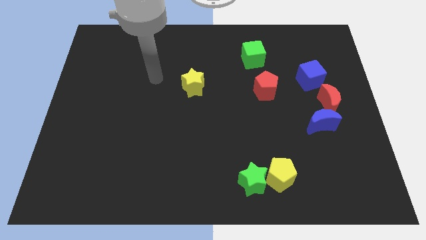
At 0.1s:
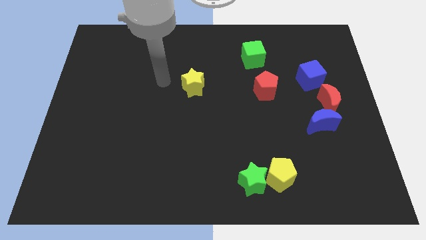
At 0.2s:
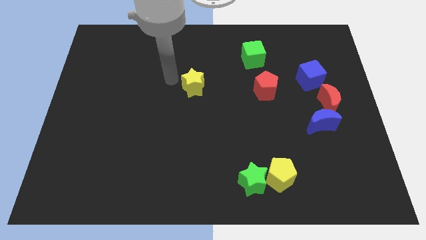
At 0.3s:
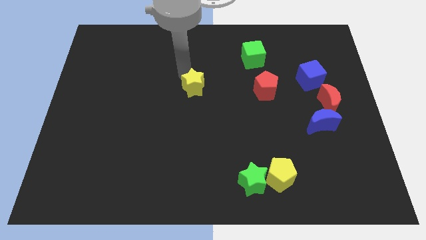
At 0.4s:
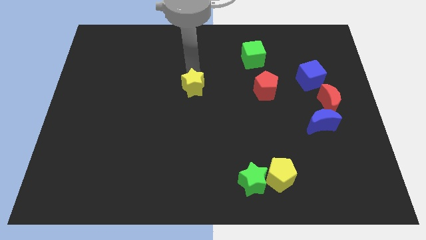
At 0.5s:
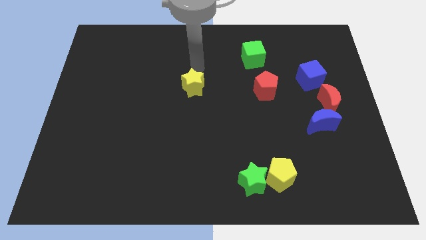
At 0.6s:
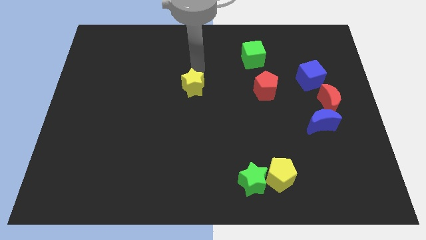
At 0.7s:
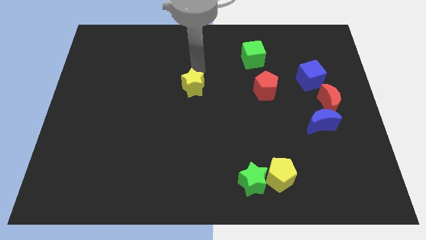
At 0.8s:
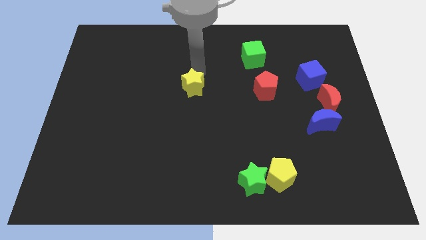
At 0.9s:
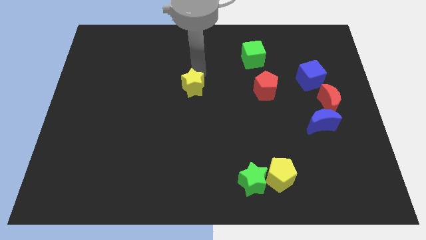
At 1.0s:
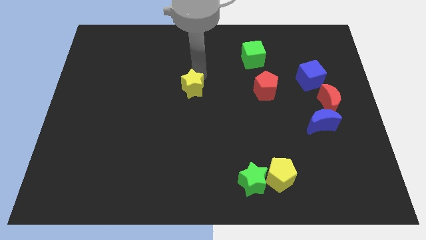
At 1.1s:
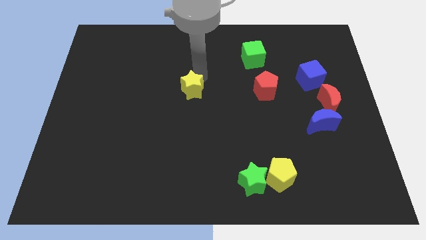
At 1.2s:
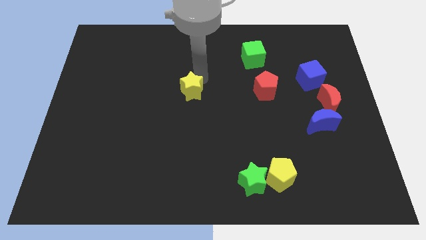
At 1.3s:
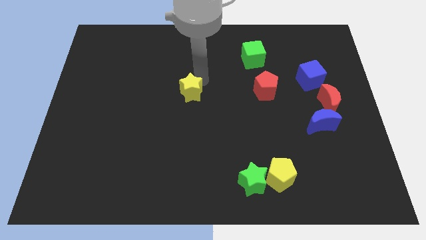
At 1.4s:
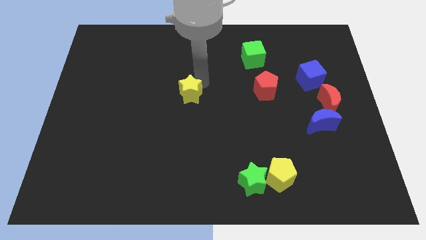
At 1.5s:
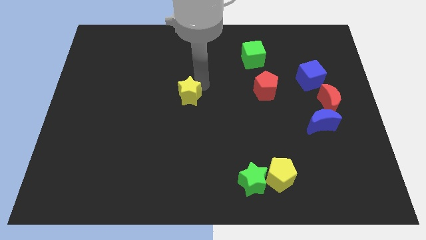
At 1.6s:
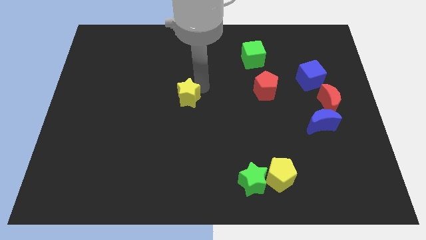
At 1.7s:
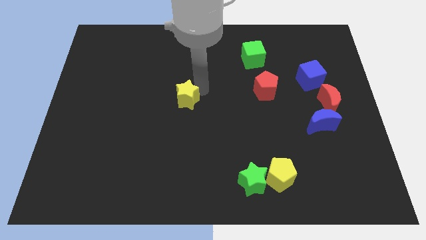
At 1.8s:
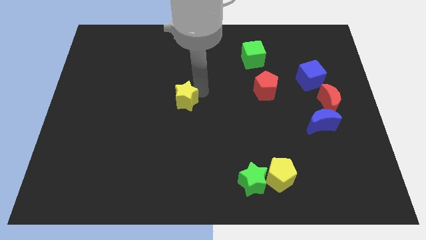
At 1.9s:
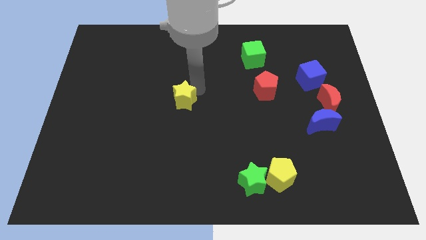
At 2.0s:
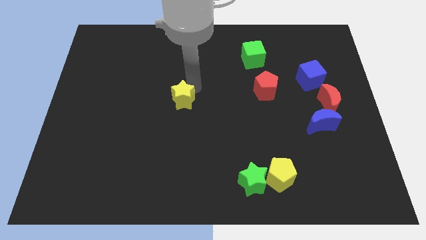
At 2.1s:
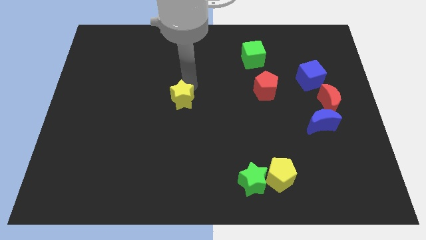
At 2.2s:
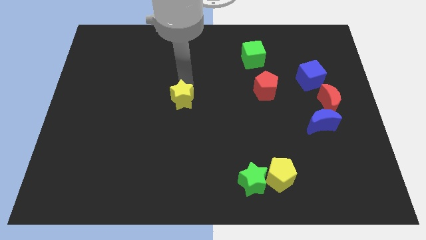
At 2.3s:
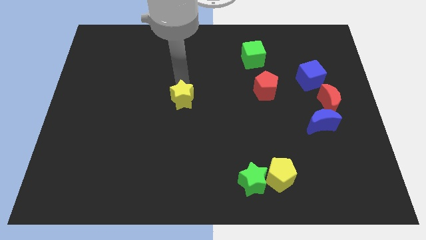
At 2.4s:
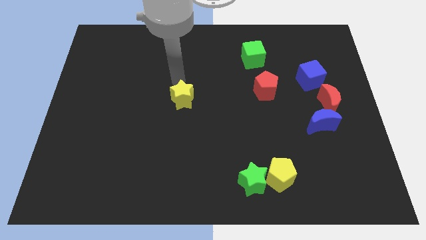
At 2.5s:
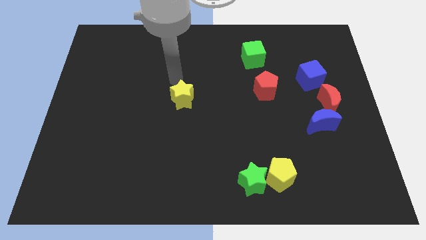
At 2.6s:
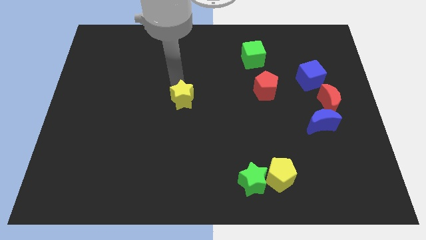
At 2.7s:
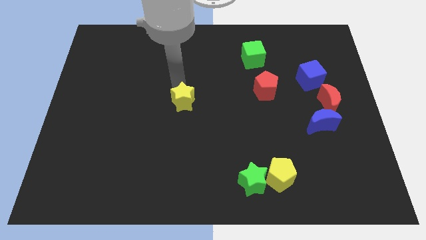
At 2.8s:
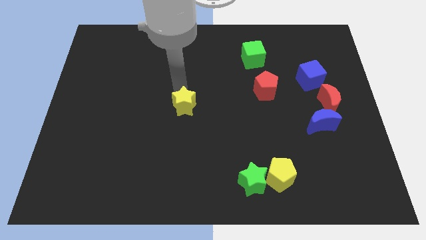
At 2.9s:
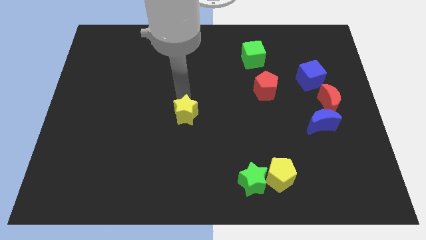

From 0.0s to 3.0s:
slide the yellow star slightly down

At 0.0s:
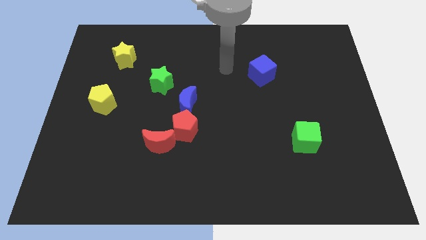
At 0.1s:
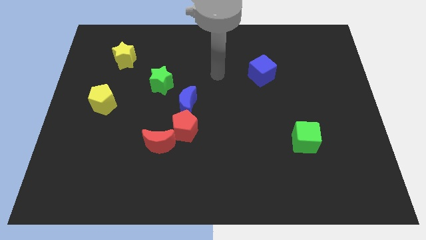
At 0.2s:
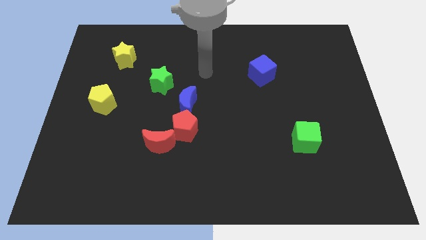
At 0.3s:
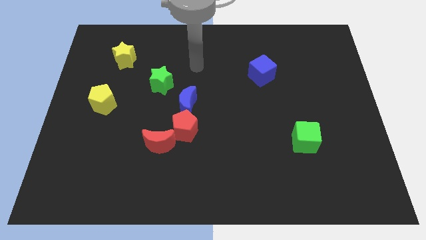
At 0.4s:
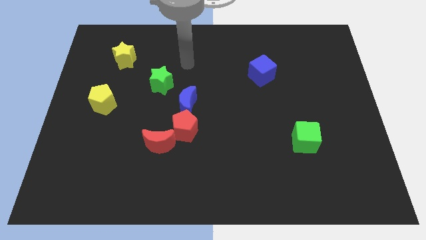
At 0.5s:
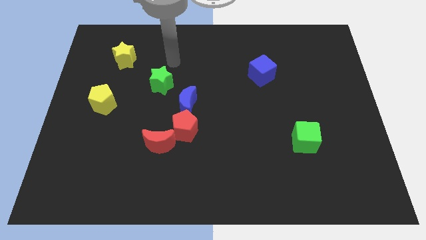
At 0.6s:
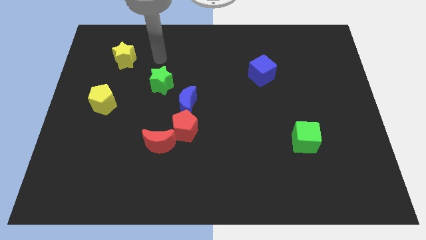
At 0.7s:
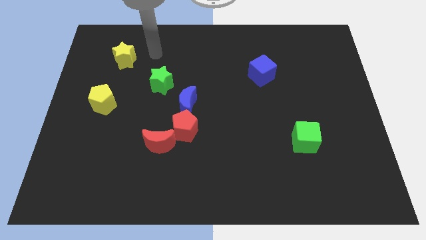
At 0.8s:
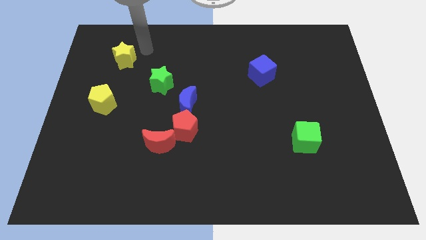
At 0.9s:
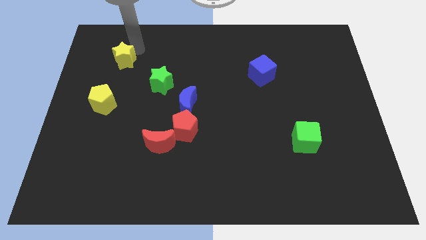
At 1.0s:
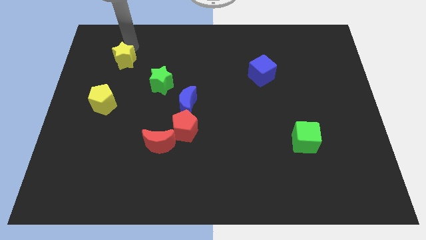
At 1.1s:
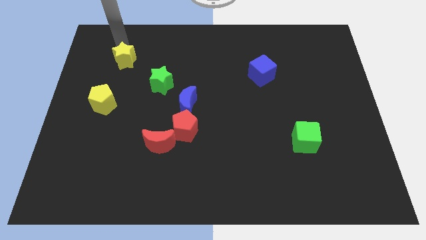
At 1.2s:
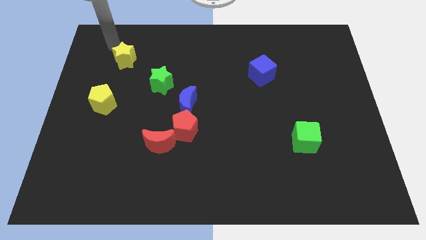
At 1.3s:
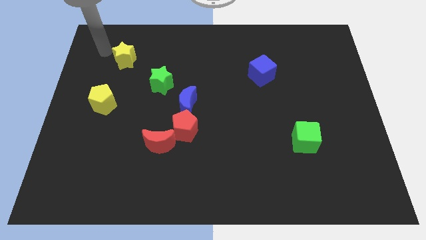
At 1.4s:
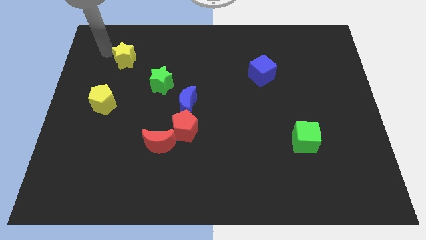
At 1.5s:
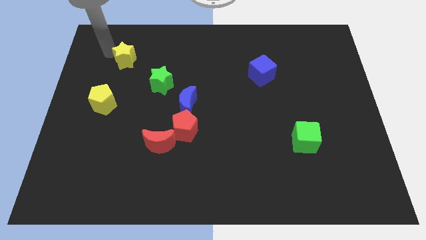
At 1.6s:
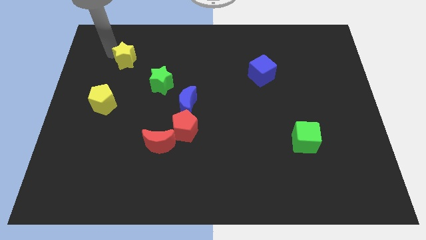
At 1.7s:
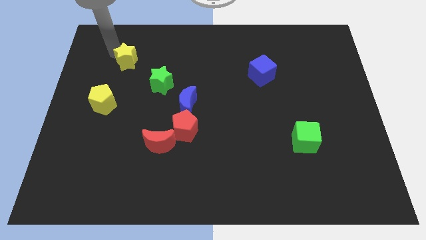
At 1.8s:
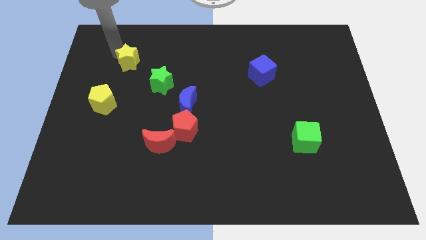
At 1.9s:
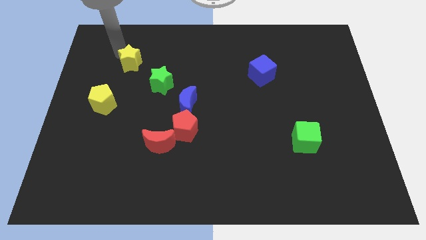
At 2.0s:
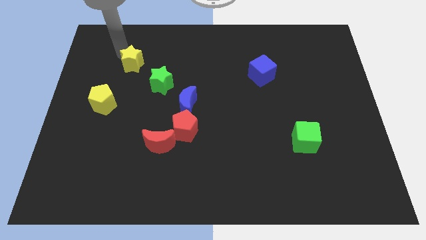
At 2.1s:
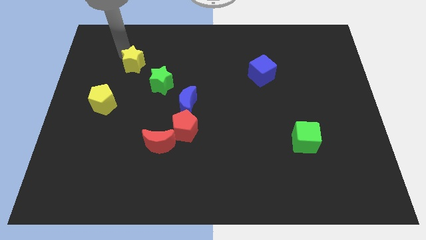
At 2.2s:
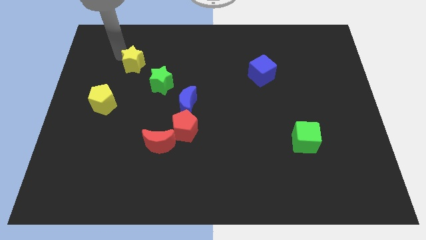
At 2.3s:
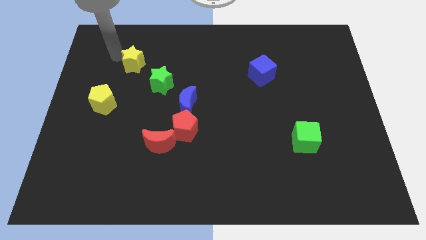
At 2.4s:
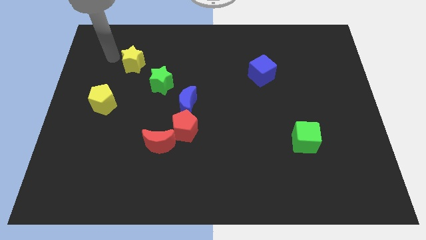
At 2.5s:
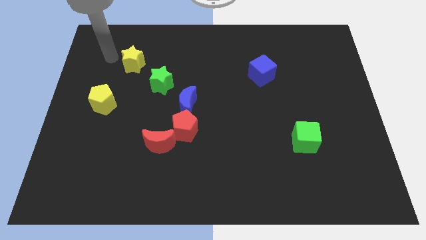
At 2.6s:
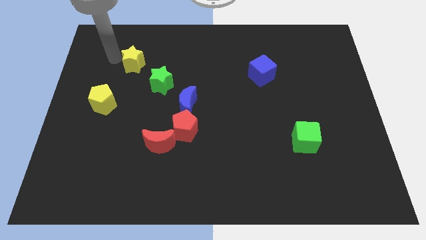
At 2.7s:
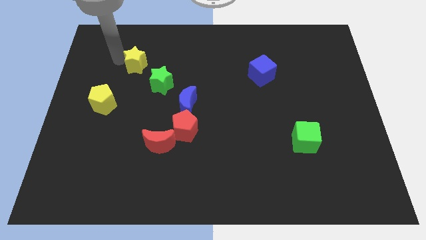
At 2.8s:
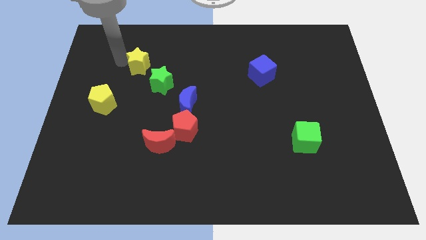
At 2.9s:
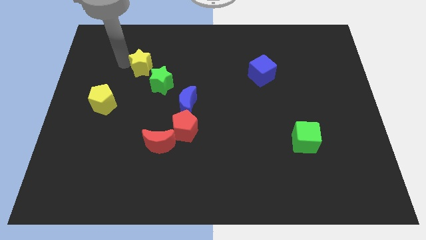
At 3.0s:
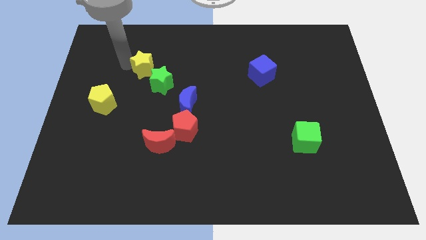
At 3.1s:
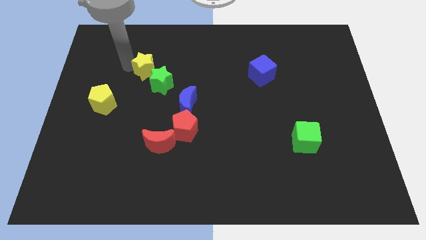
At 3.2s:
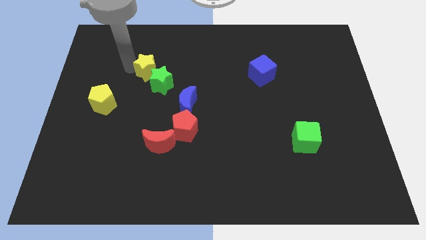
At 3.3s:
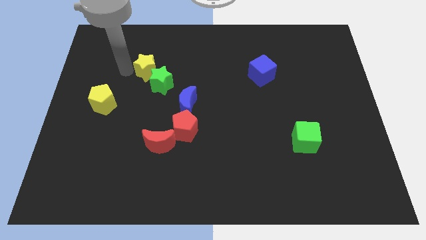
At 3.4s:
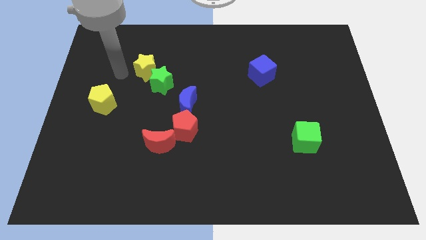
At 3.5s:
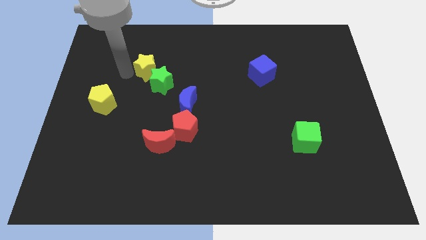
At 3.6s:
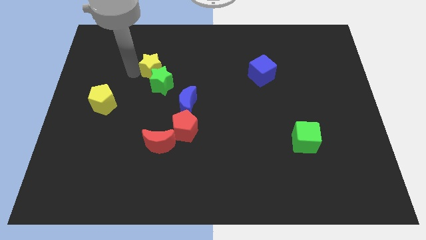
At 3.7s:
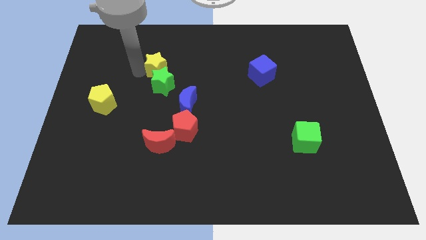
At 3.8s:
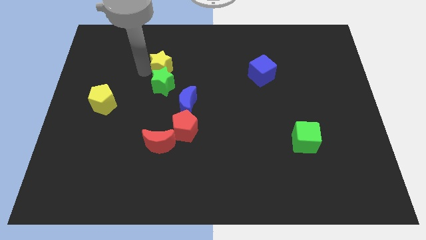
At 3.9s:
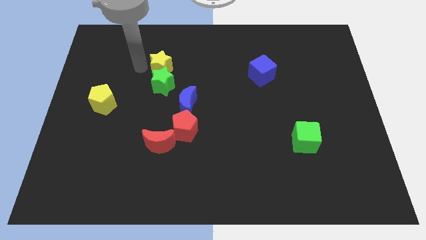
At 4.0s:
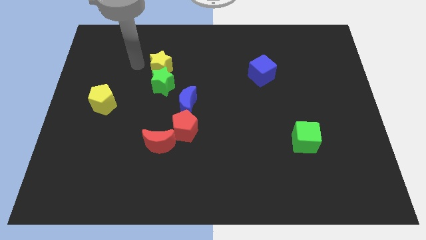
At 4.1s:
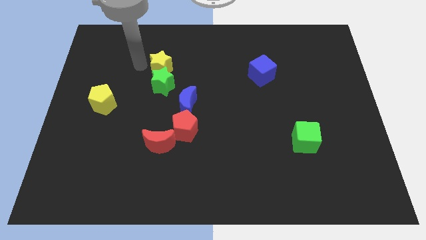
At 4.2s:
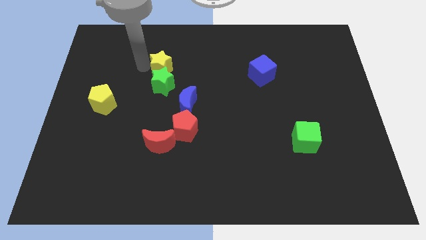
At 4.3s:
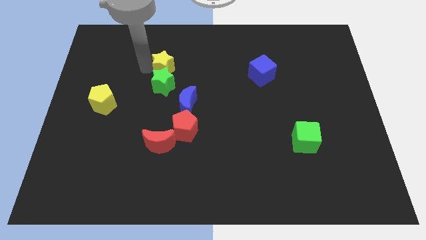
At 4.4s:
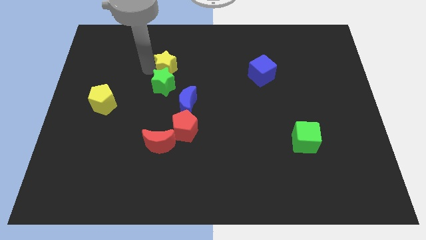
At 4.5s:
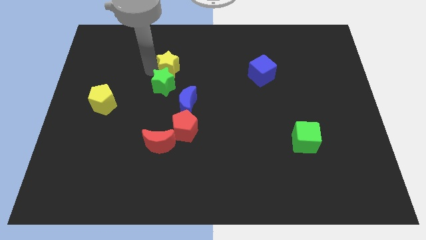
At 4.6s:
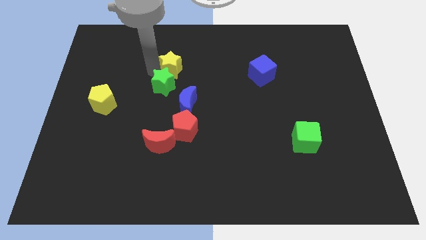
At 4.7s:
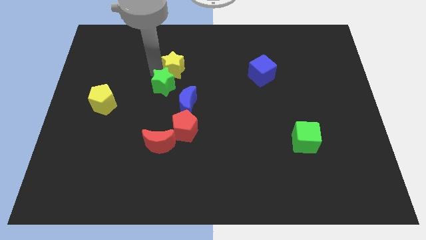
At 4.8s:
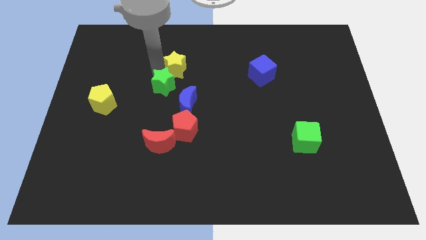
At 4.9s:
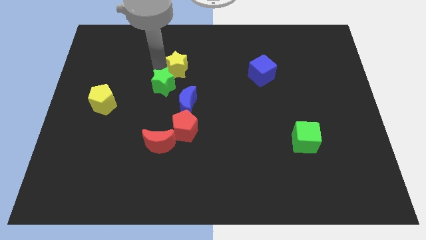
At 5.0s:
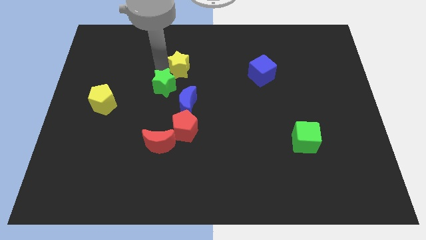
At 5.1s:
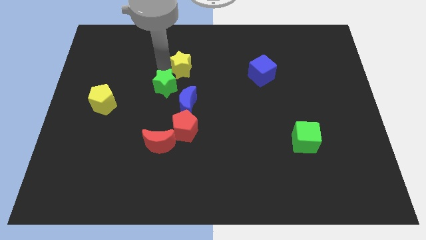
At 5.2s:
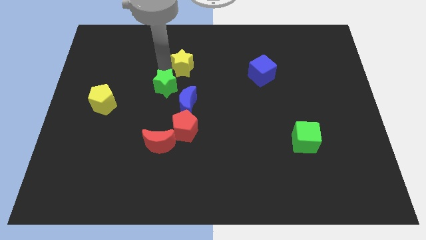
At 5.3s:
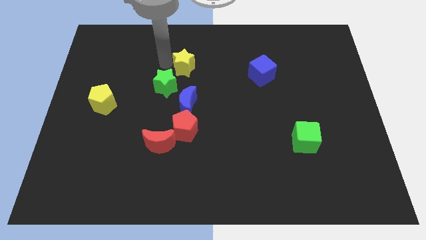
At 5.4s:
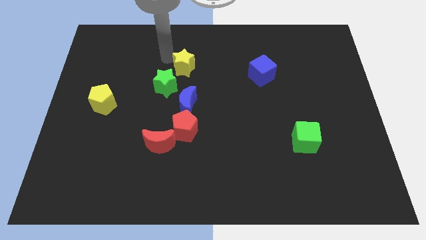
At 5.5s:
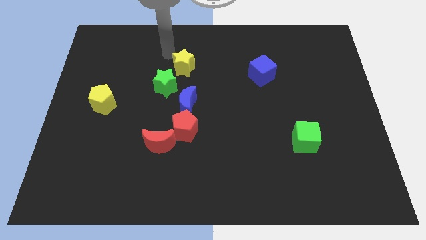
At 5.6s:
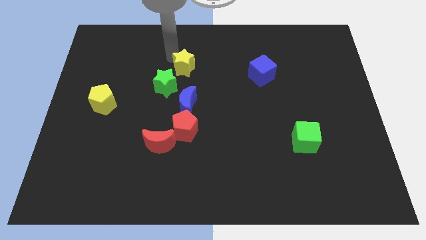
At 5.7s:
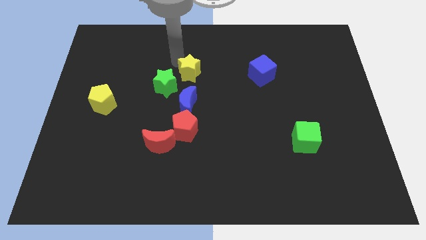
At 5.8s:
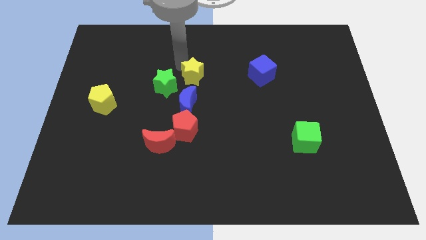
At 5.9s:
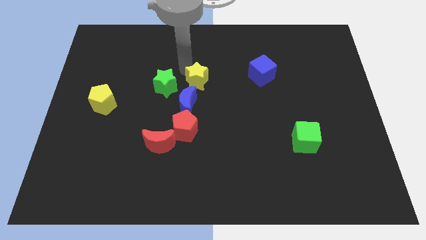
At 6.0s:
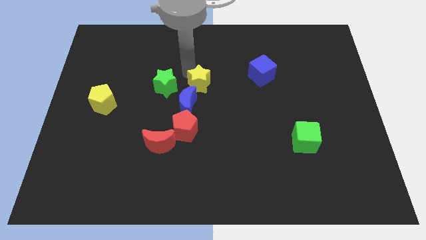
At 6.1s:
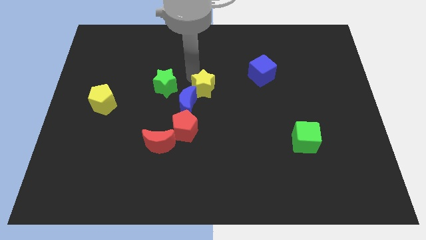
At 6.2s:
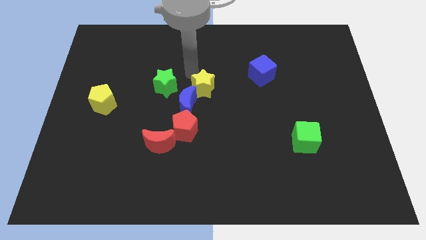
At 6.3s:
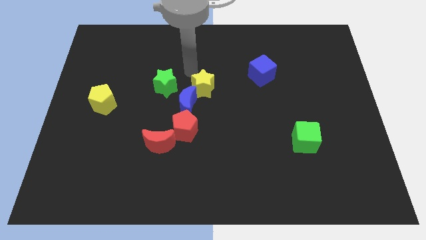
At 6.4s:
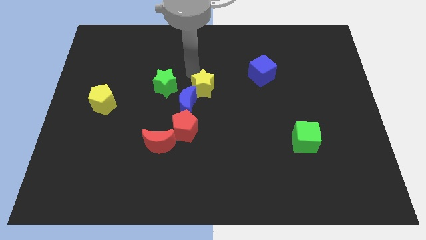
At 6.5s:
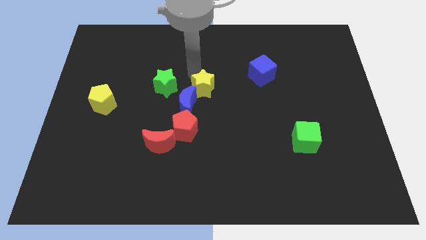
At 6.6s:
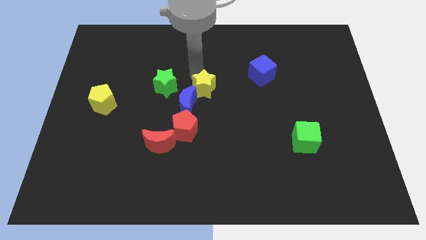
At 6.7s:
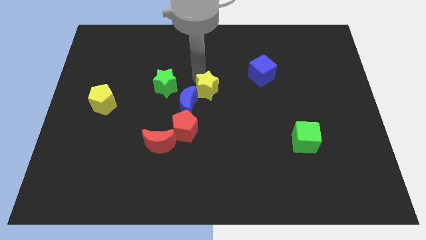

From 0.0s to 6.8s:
push the yellow star diagonally down and right
